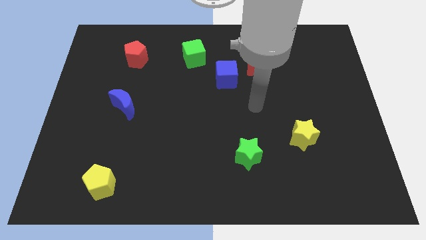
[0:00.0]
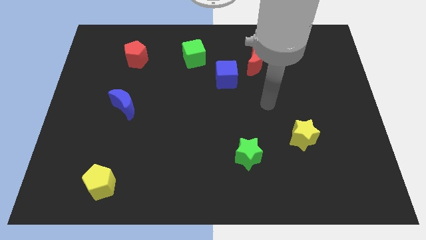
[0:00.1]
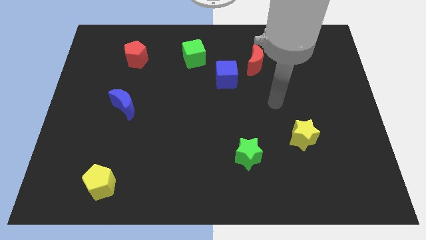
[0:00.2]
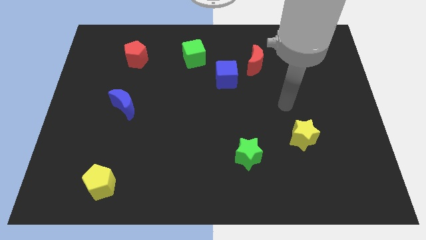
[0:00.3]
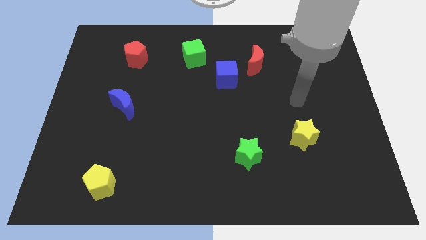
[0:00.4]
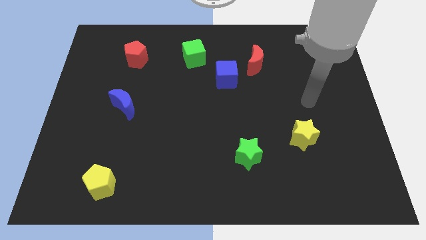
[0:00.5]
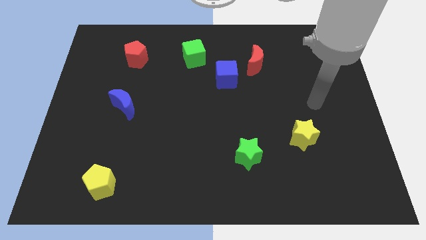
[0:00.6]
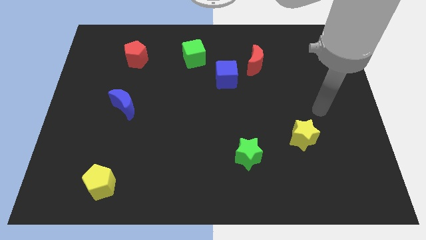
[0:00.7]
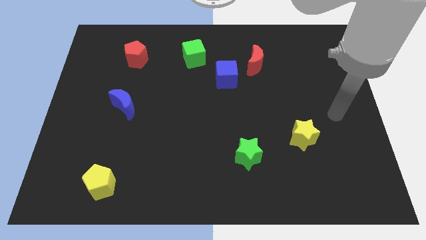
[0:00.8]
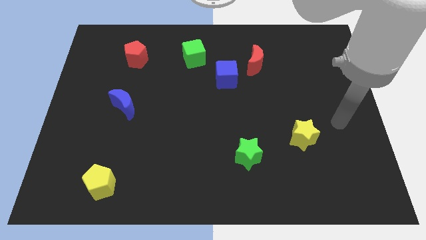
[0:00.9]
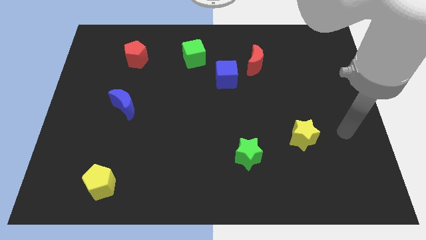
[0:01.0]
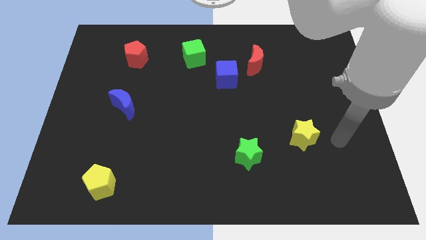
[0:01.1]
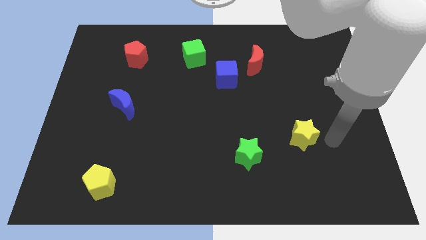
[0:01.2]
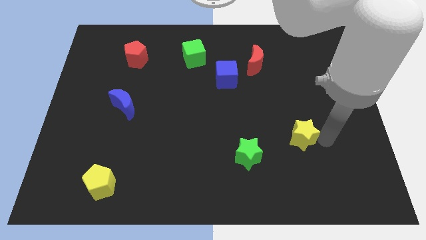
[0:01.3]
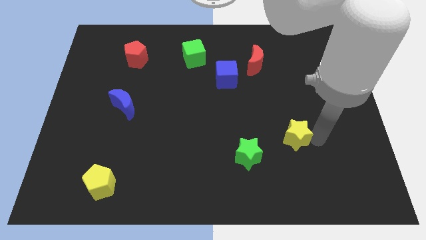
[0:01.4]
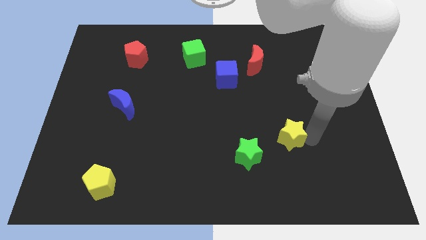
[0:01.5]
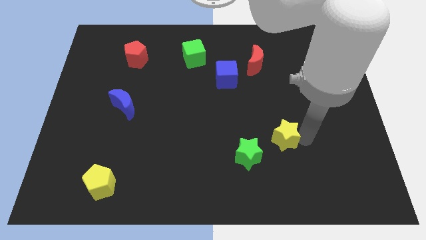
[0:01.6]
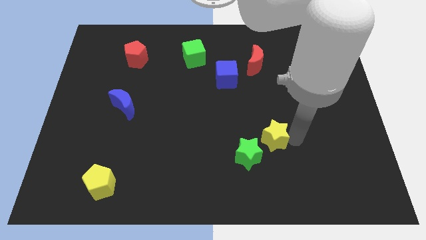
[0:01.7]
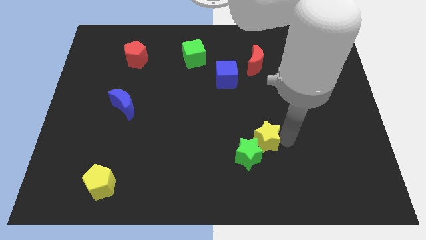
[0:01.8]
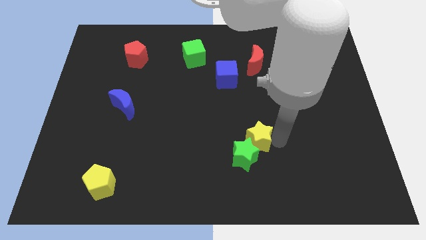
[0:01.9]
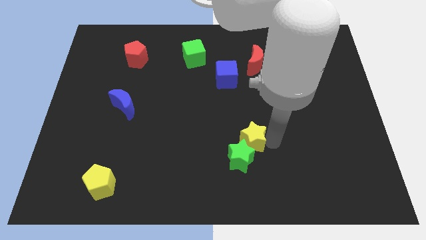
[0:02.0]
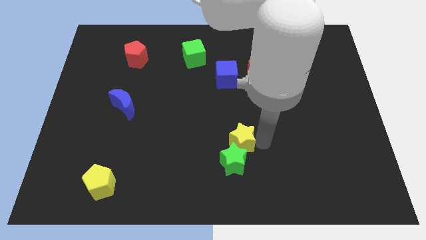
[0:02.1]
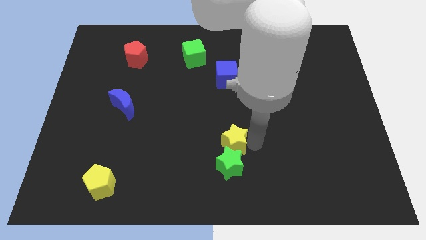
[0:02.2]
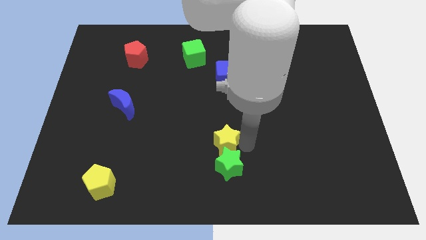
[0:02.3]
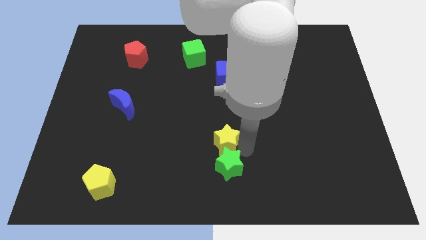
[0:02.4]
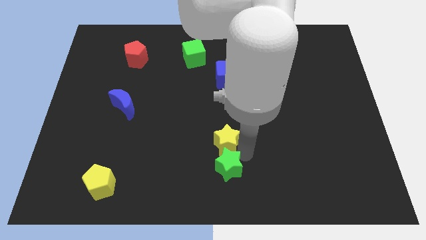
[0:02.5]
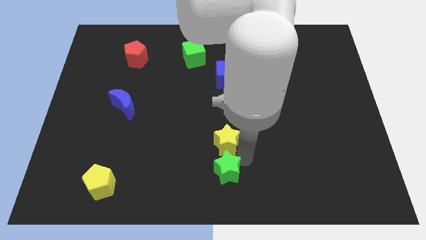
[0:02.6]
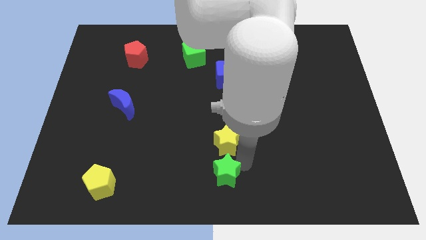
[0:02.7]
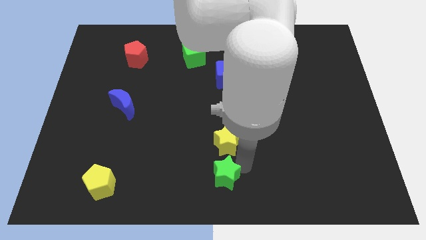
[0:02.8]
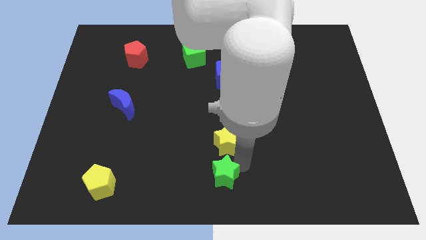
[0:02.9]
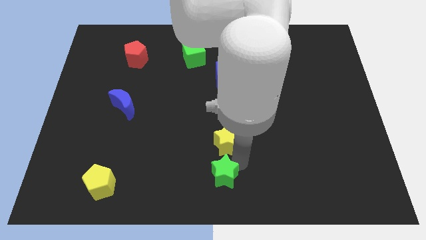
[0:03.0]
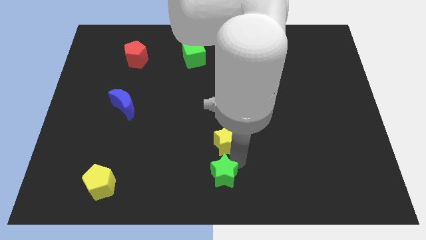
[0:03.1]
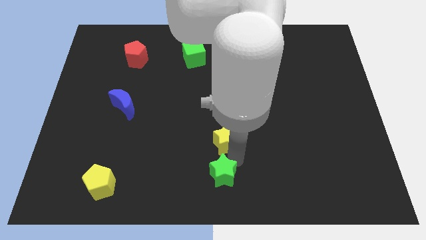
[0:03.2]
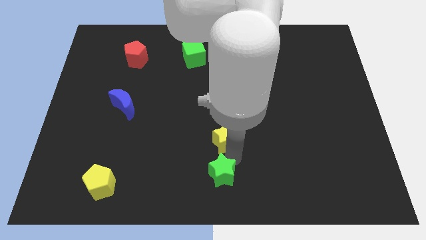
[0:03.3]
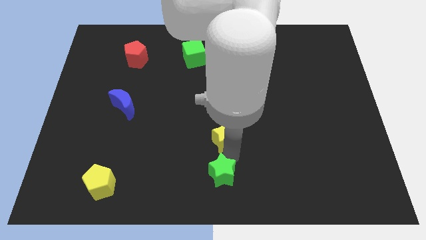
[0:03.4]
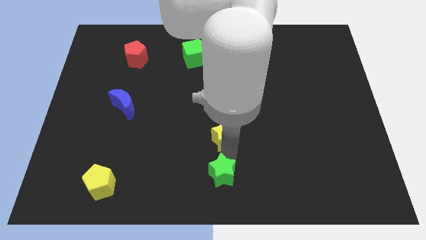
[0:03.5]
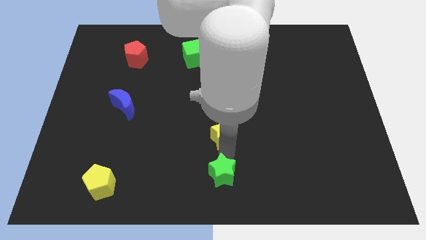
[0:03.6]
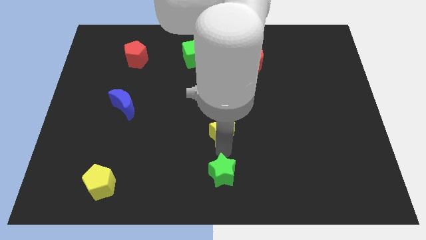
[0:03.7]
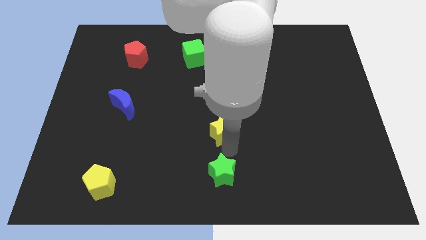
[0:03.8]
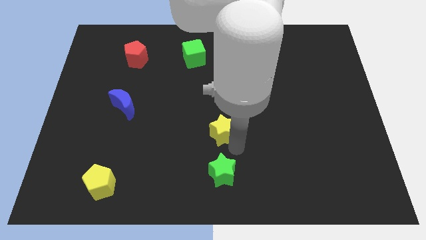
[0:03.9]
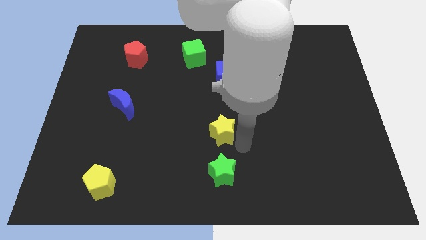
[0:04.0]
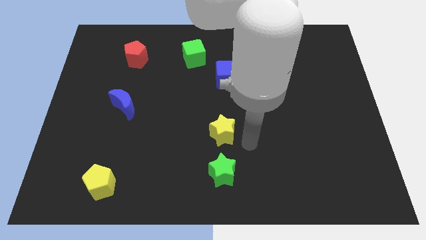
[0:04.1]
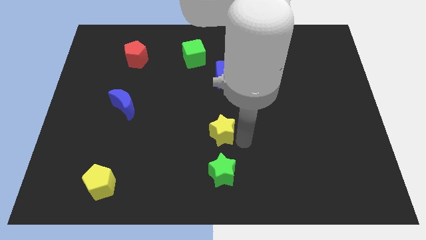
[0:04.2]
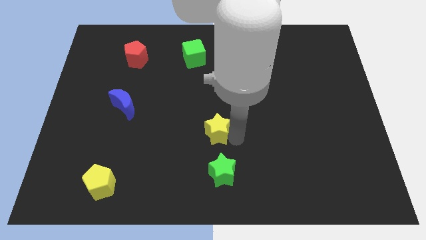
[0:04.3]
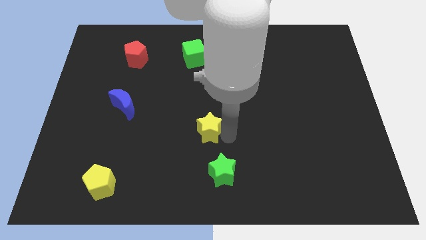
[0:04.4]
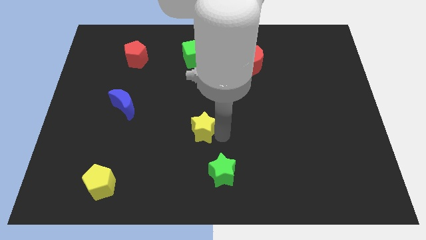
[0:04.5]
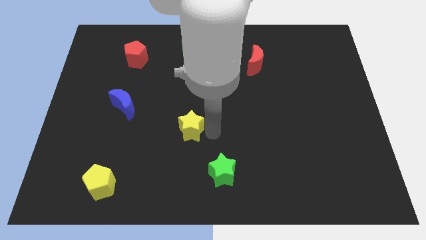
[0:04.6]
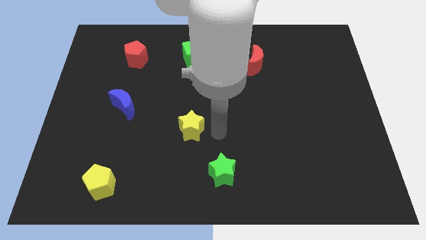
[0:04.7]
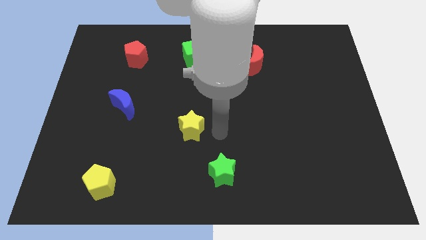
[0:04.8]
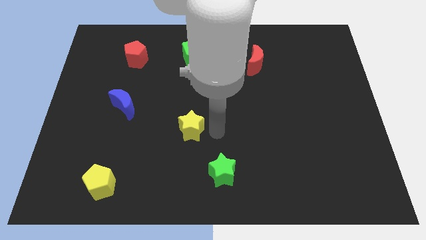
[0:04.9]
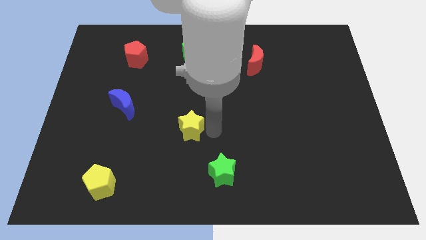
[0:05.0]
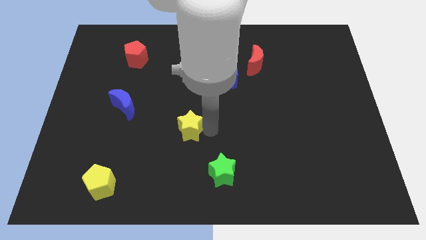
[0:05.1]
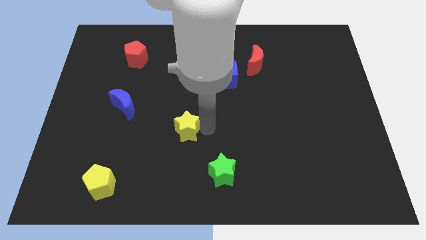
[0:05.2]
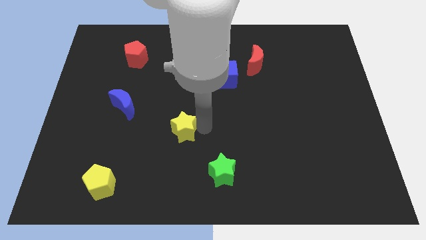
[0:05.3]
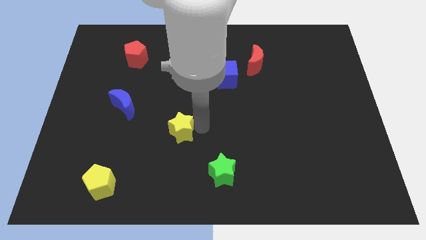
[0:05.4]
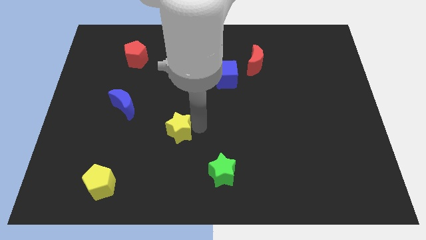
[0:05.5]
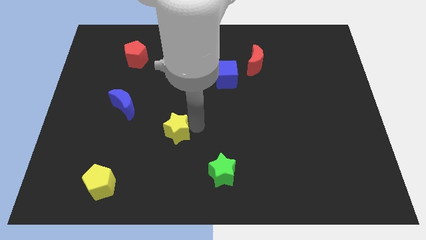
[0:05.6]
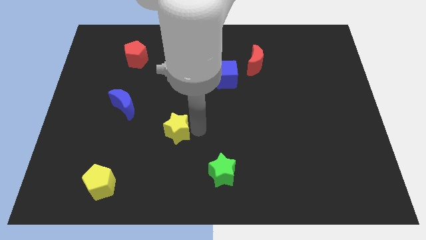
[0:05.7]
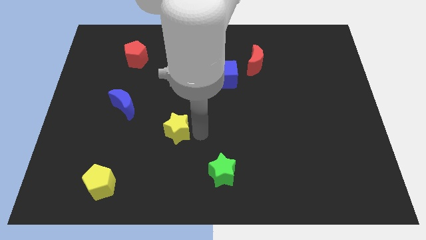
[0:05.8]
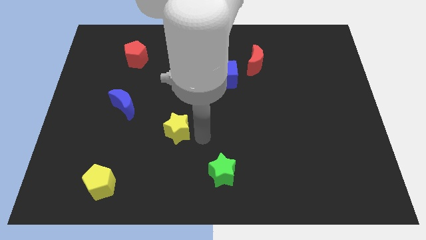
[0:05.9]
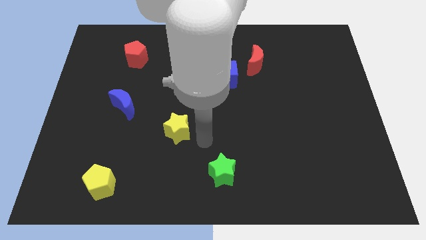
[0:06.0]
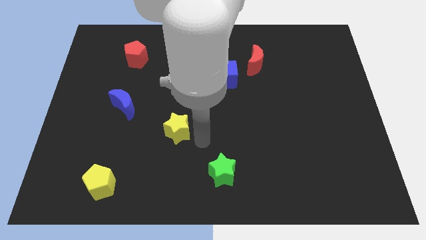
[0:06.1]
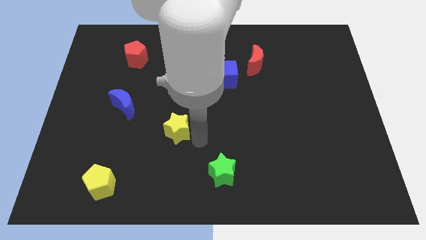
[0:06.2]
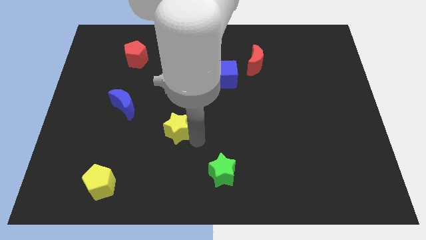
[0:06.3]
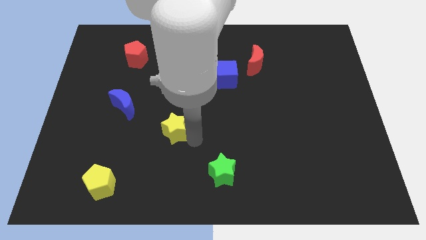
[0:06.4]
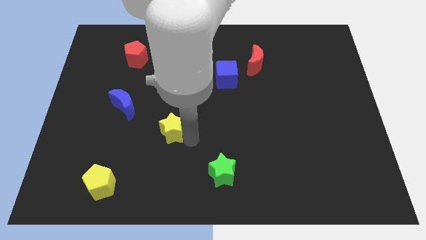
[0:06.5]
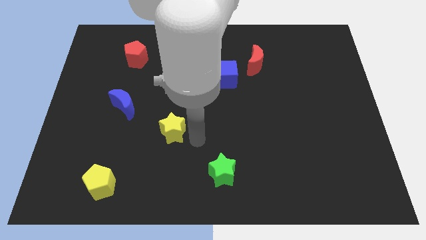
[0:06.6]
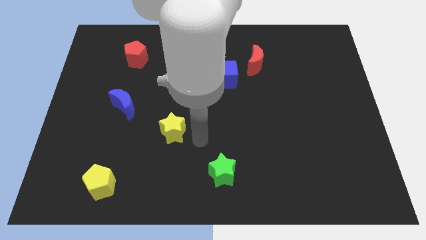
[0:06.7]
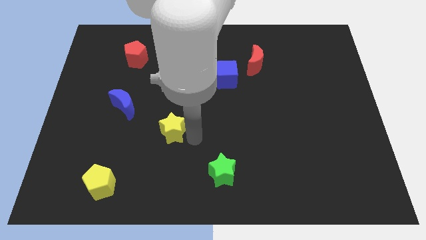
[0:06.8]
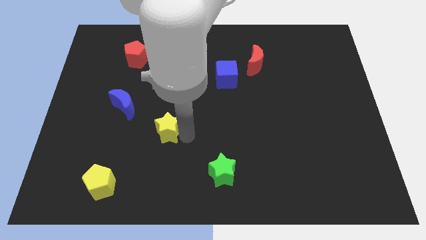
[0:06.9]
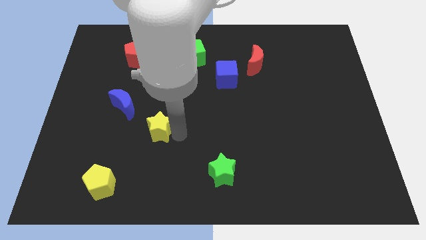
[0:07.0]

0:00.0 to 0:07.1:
put the yellow star diagonally down and to the right of the blue moon

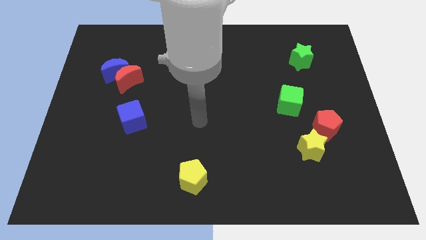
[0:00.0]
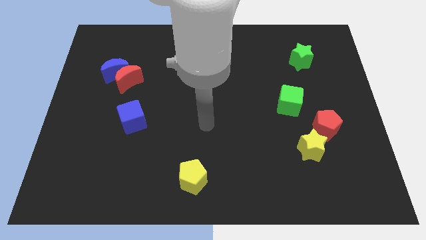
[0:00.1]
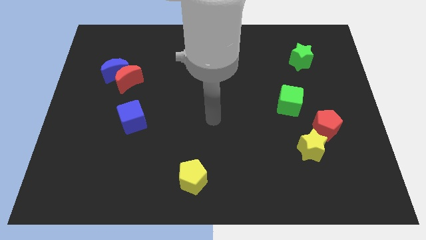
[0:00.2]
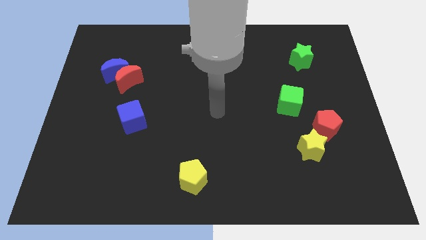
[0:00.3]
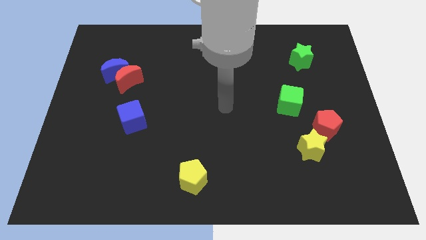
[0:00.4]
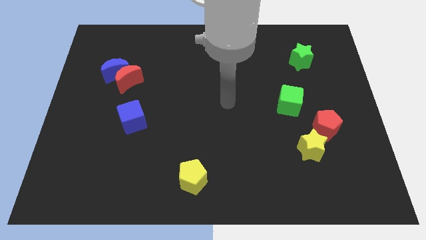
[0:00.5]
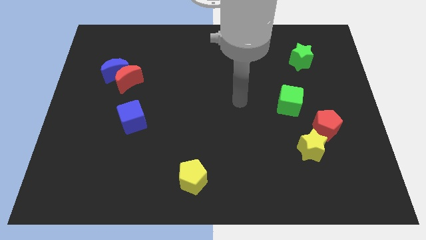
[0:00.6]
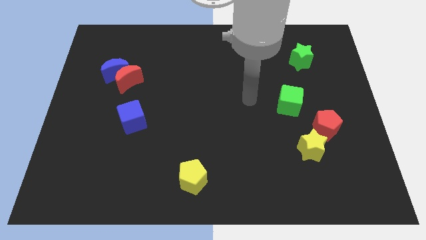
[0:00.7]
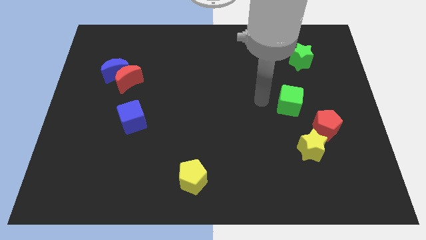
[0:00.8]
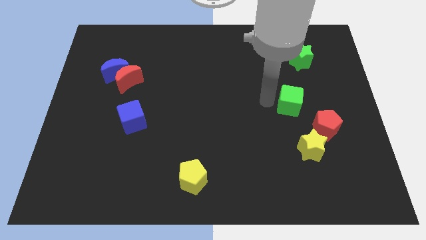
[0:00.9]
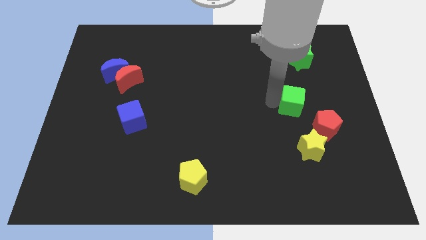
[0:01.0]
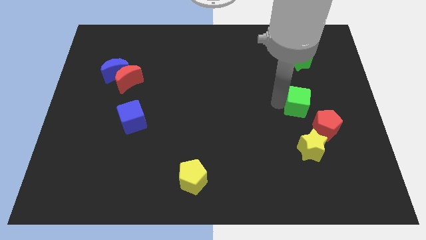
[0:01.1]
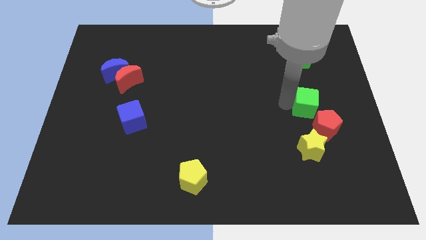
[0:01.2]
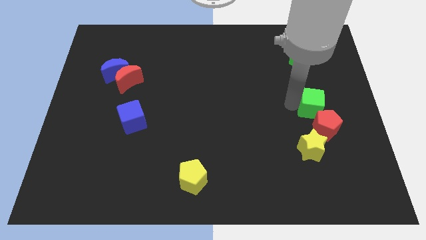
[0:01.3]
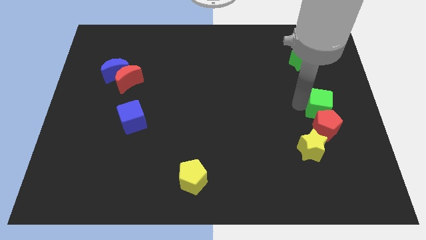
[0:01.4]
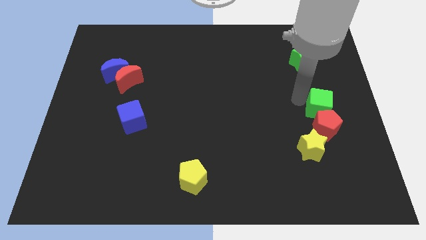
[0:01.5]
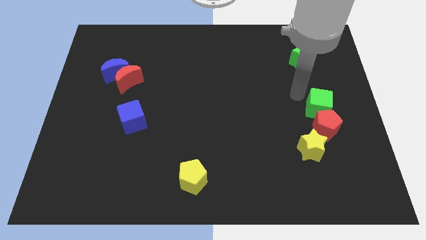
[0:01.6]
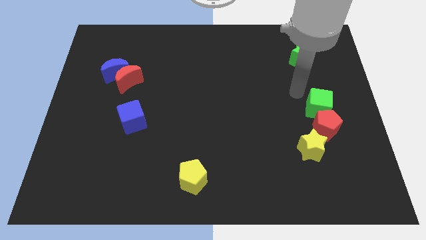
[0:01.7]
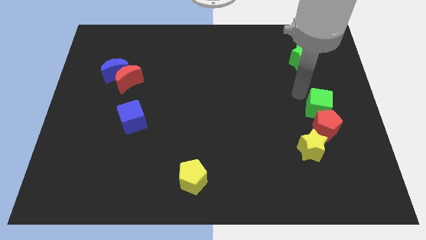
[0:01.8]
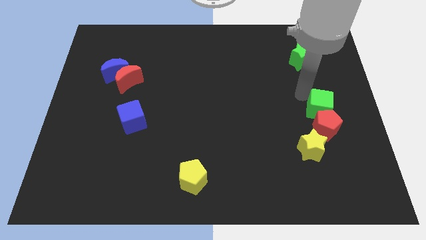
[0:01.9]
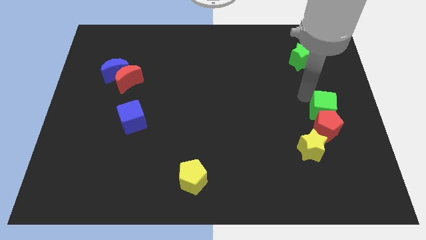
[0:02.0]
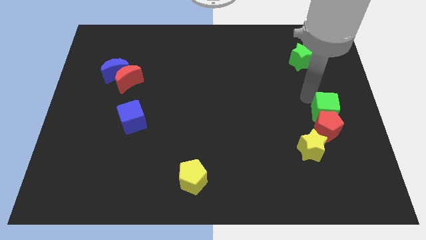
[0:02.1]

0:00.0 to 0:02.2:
put the green cube diagonally up and to the right of the yellow star
